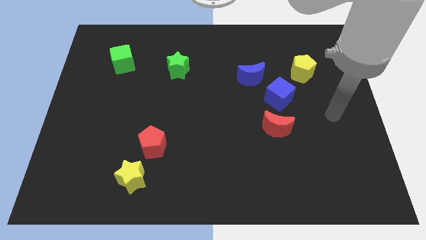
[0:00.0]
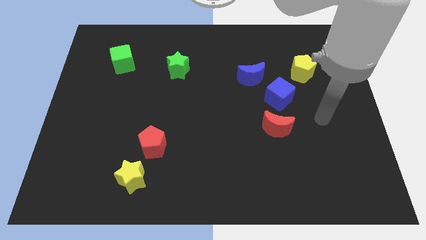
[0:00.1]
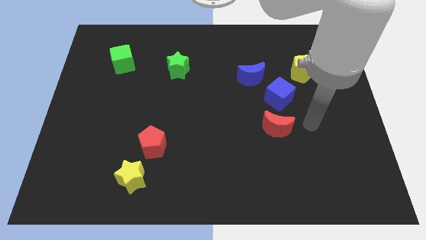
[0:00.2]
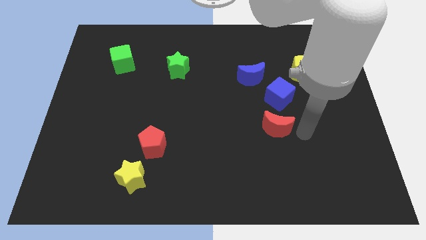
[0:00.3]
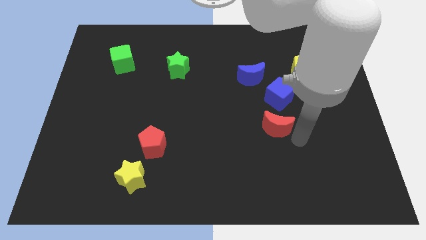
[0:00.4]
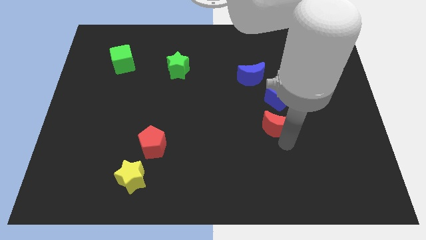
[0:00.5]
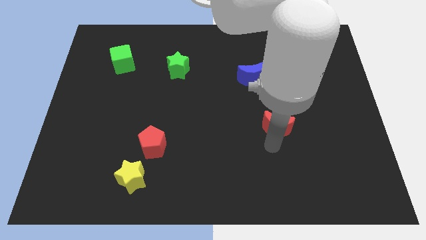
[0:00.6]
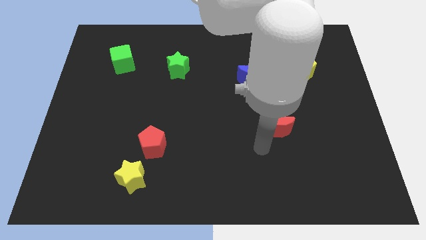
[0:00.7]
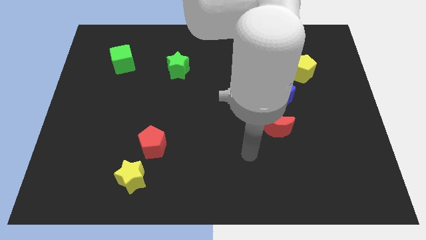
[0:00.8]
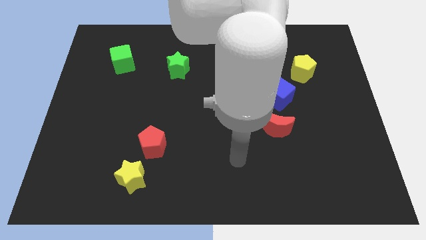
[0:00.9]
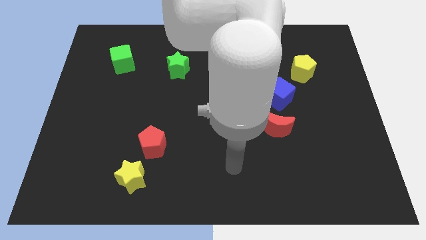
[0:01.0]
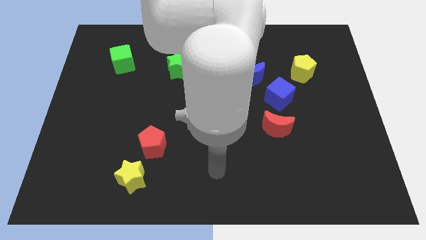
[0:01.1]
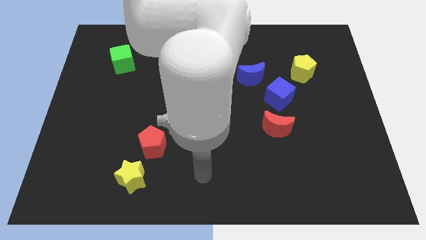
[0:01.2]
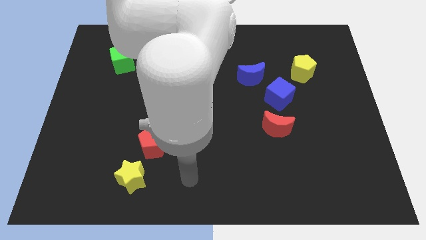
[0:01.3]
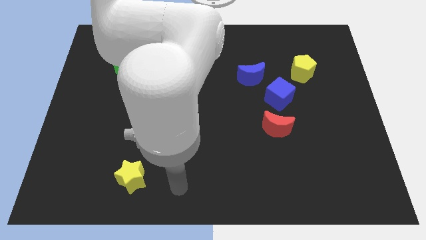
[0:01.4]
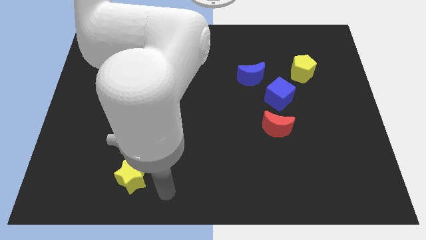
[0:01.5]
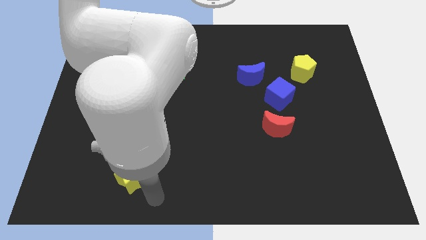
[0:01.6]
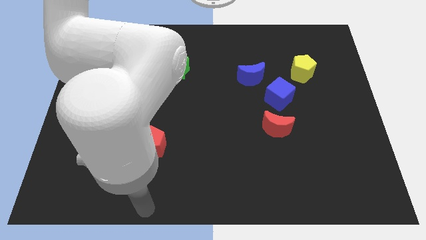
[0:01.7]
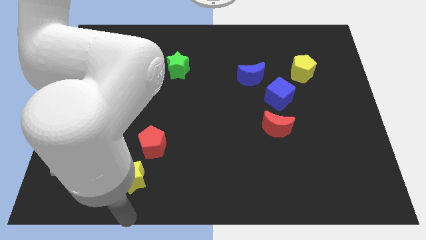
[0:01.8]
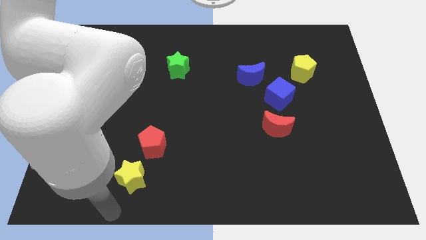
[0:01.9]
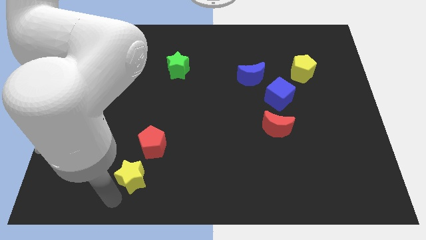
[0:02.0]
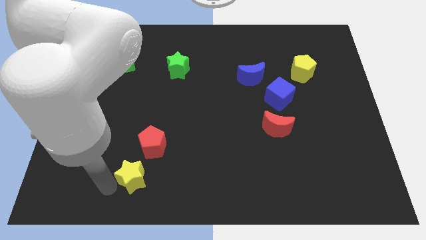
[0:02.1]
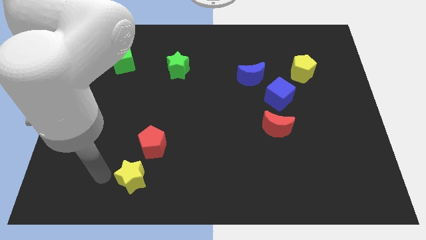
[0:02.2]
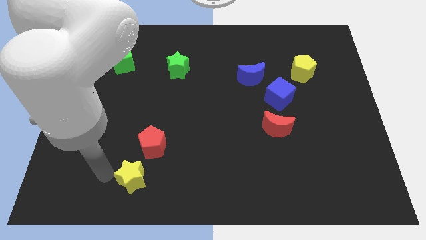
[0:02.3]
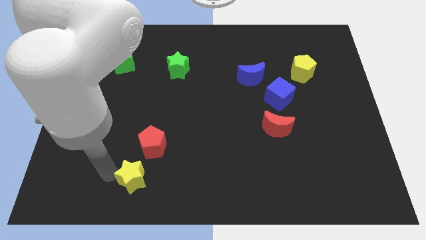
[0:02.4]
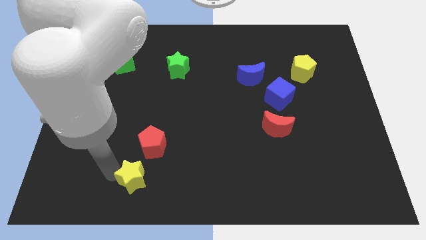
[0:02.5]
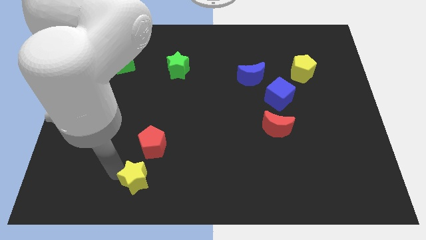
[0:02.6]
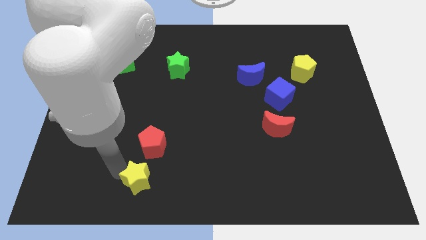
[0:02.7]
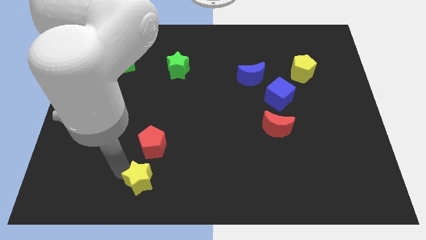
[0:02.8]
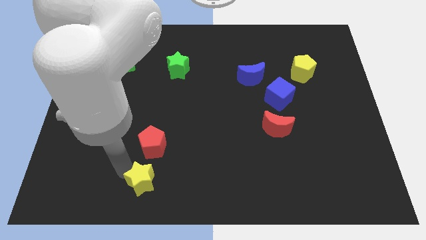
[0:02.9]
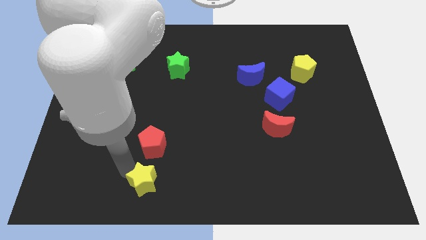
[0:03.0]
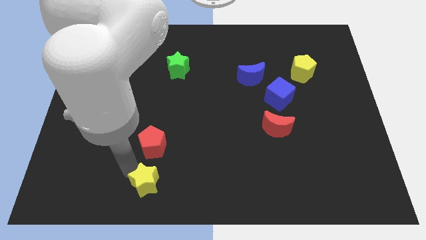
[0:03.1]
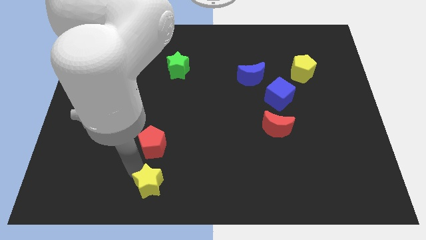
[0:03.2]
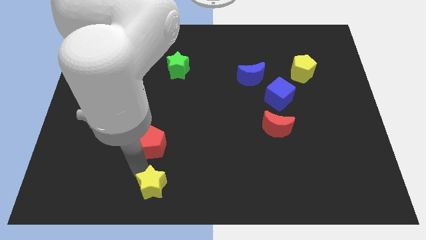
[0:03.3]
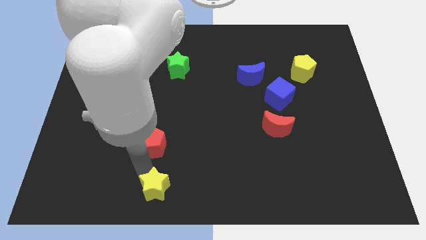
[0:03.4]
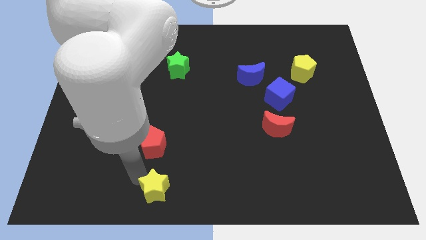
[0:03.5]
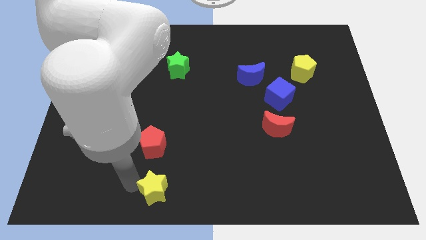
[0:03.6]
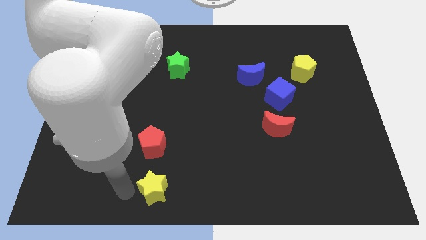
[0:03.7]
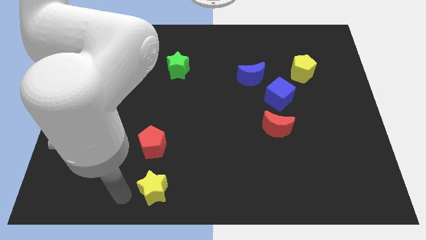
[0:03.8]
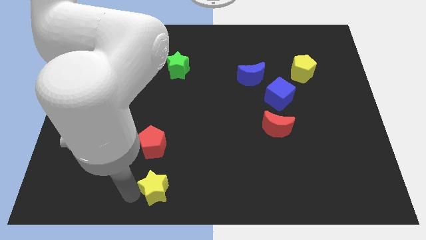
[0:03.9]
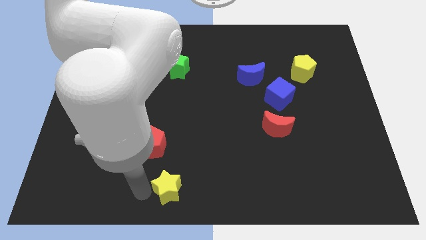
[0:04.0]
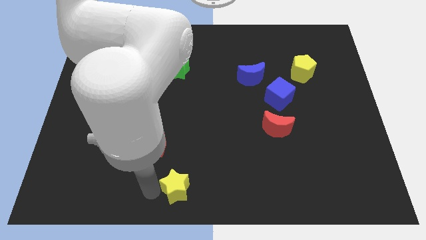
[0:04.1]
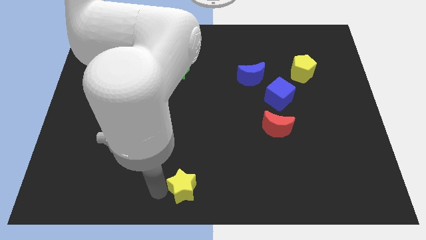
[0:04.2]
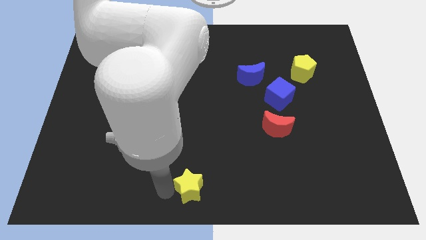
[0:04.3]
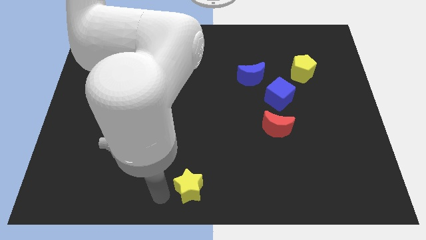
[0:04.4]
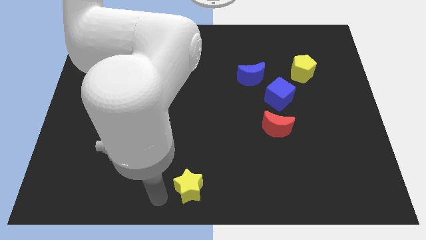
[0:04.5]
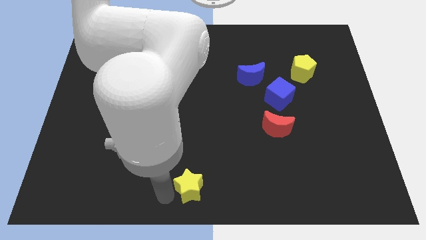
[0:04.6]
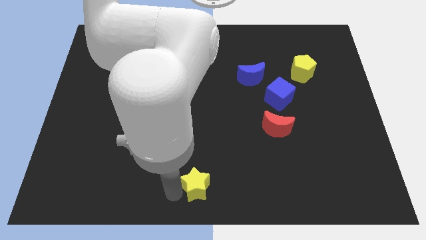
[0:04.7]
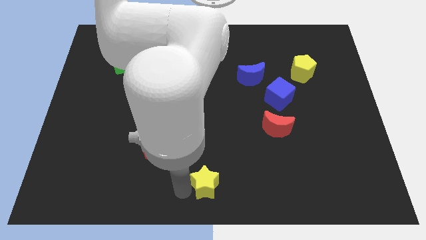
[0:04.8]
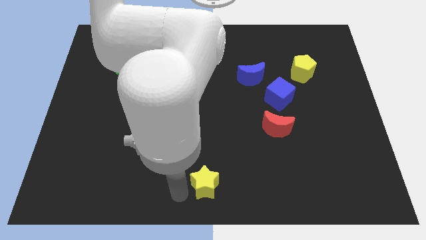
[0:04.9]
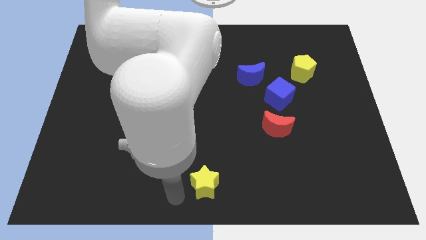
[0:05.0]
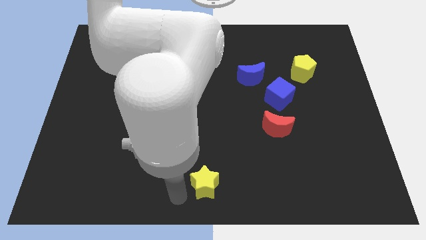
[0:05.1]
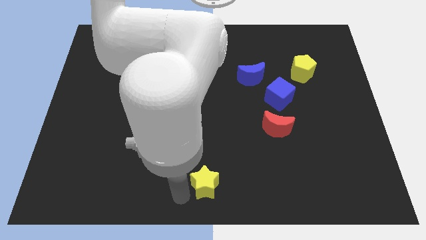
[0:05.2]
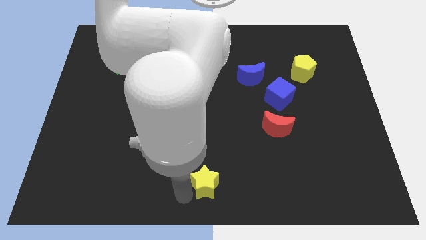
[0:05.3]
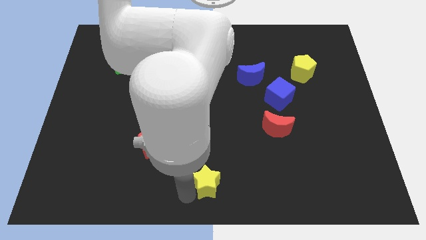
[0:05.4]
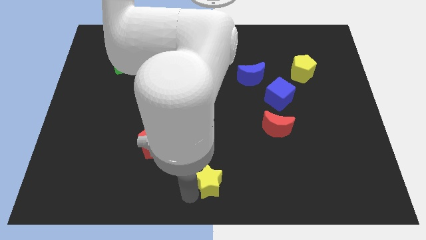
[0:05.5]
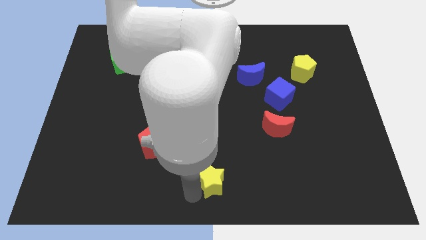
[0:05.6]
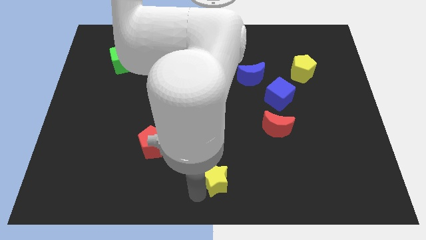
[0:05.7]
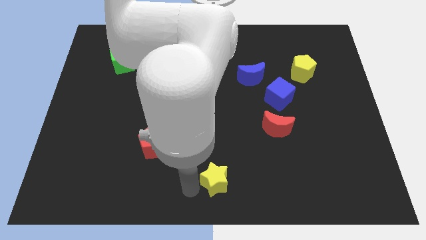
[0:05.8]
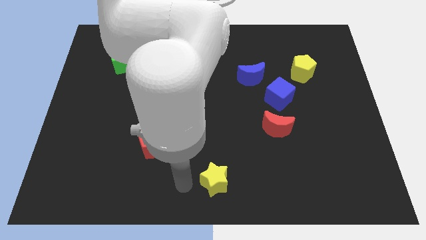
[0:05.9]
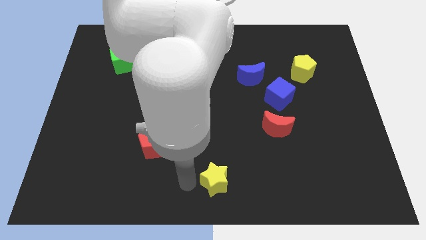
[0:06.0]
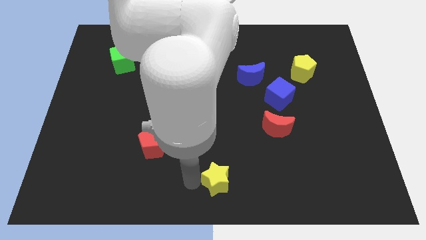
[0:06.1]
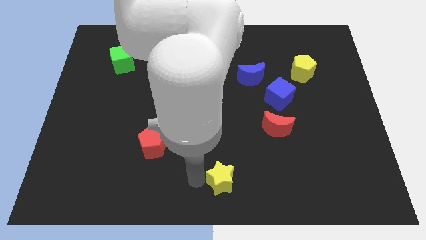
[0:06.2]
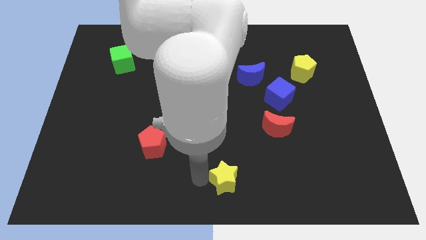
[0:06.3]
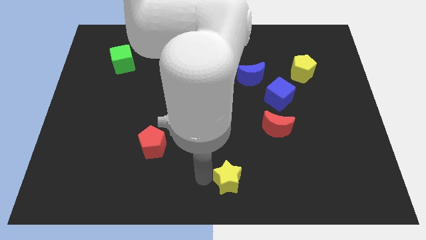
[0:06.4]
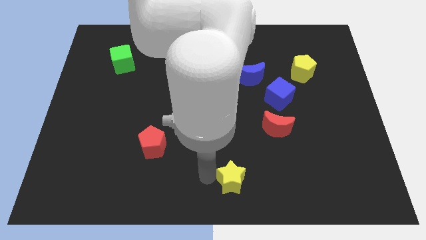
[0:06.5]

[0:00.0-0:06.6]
move the yellow star right

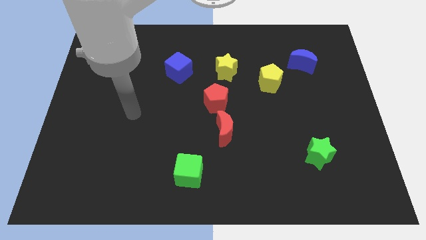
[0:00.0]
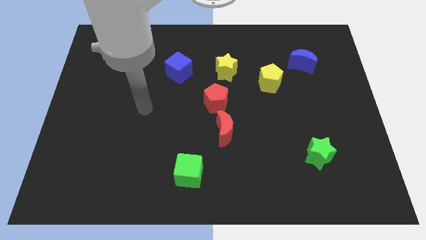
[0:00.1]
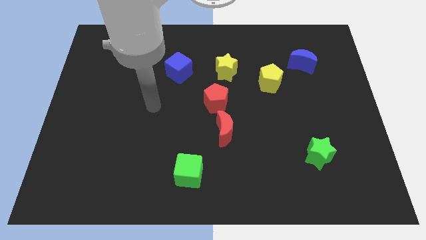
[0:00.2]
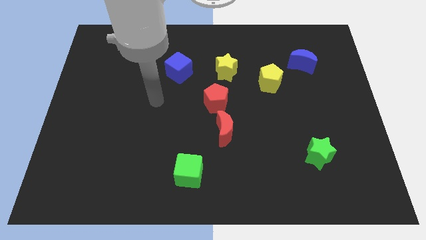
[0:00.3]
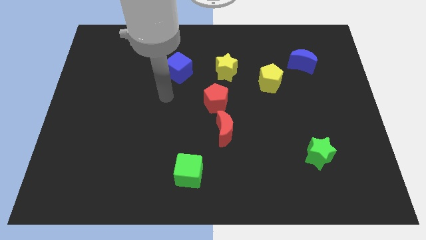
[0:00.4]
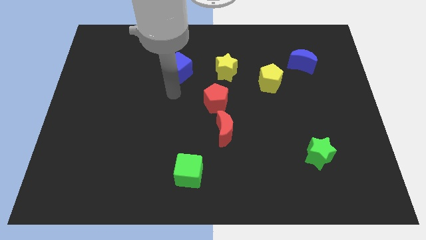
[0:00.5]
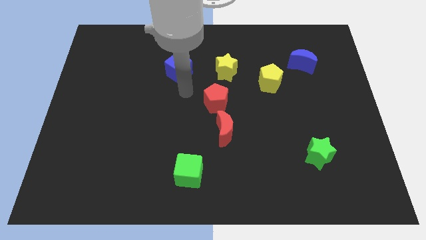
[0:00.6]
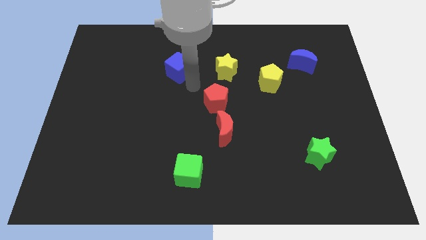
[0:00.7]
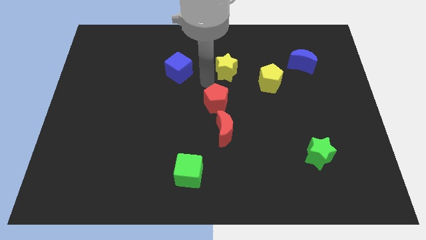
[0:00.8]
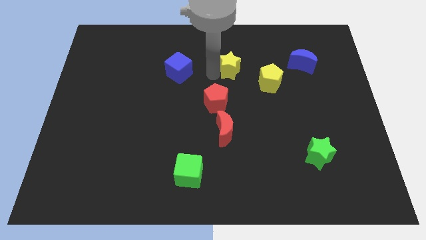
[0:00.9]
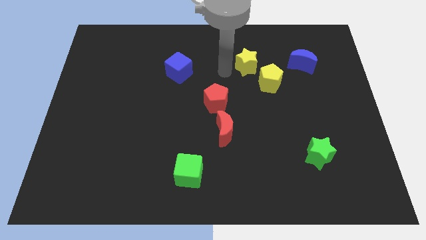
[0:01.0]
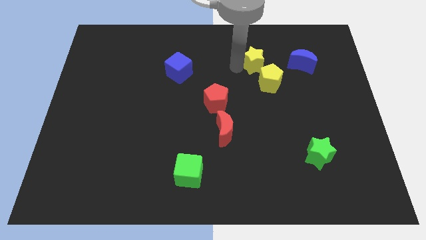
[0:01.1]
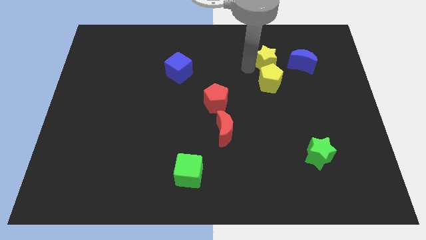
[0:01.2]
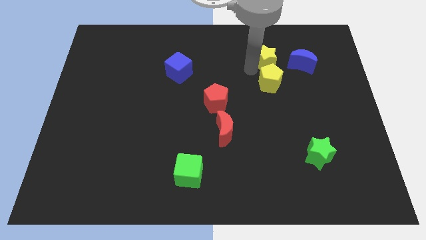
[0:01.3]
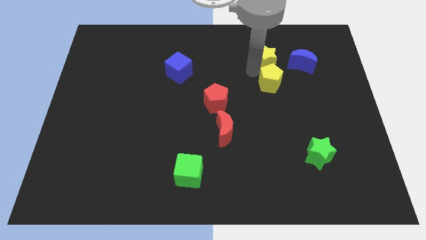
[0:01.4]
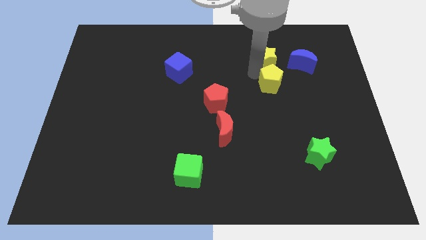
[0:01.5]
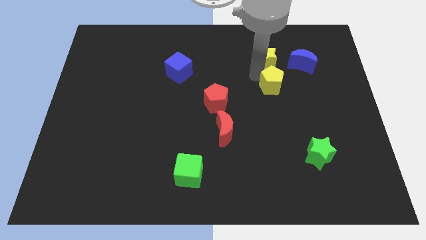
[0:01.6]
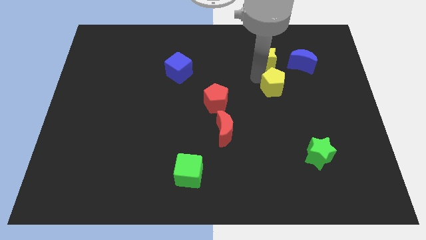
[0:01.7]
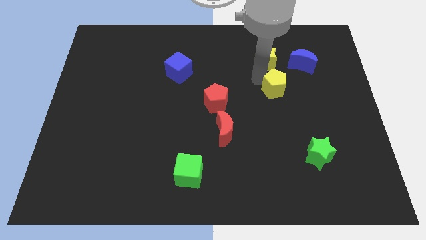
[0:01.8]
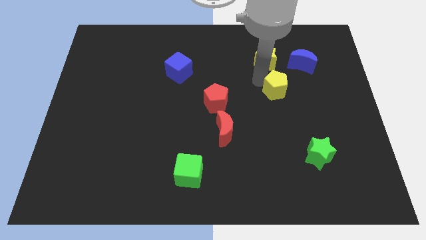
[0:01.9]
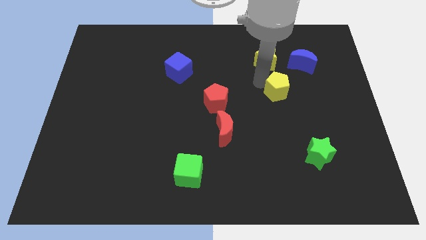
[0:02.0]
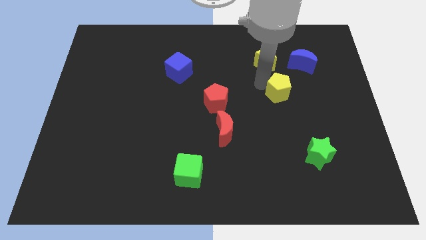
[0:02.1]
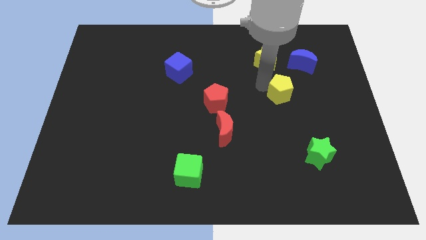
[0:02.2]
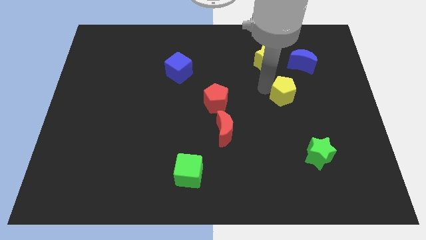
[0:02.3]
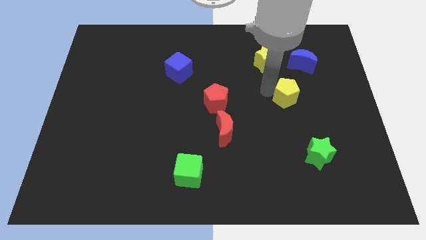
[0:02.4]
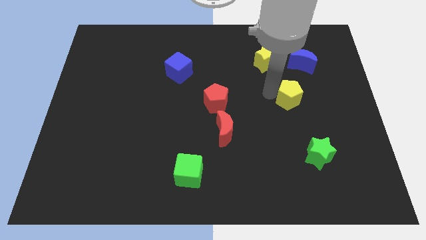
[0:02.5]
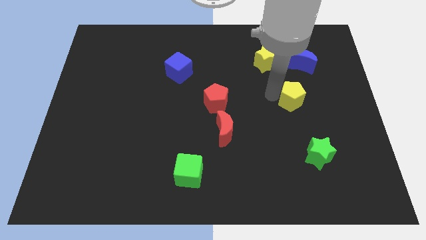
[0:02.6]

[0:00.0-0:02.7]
slide the yellow pentagon a little down and then to the right
